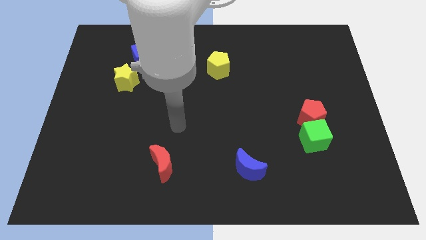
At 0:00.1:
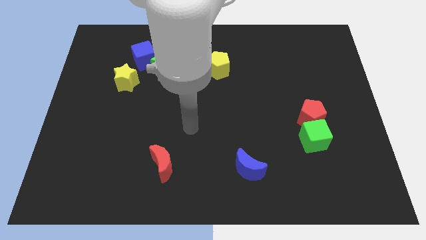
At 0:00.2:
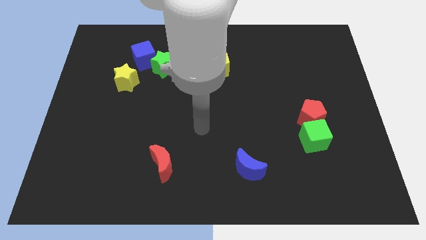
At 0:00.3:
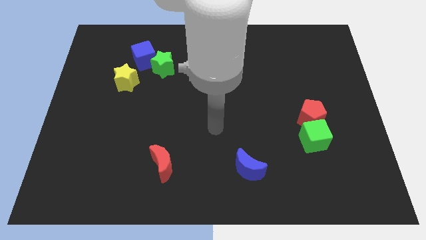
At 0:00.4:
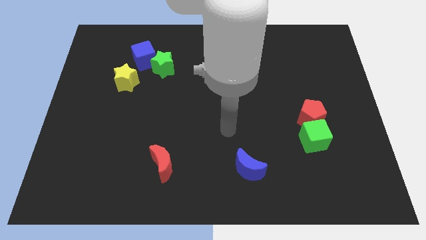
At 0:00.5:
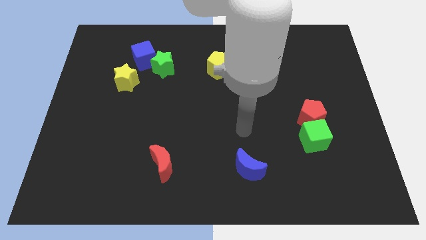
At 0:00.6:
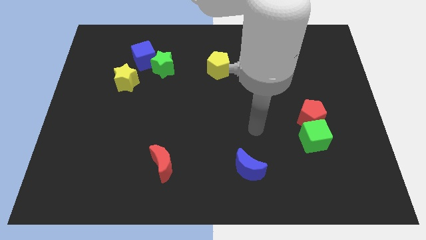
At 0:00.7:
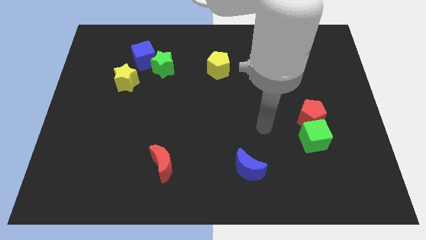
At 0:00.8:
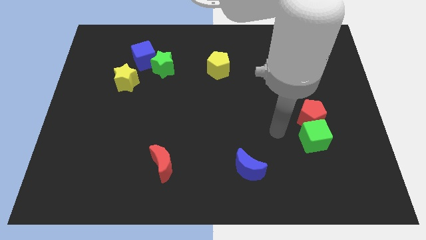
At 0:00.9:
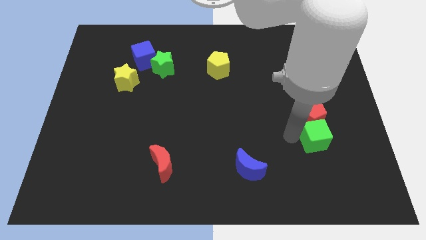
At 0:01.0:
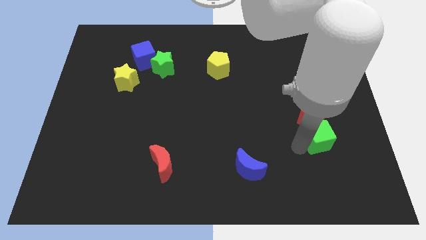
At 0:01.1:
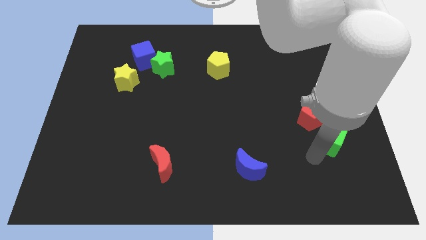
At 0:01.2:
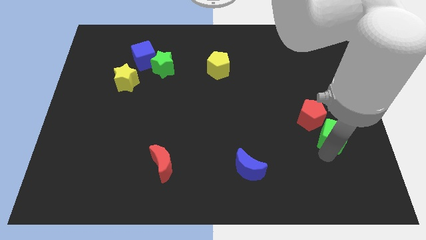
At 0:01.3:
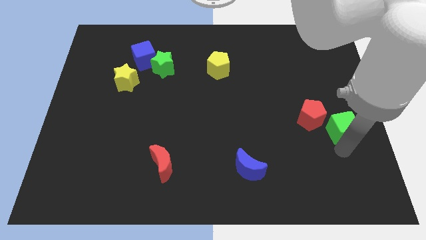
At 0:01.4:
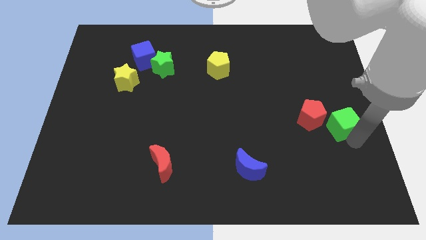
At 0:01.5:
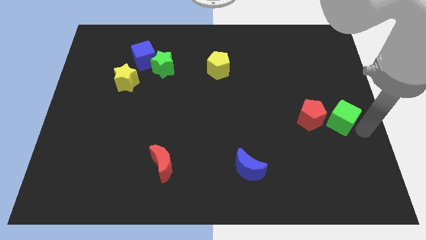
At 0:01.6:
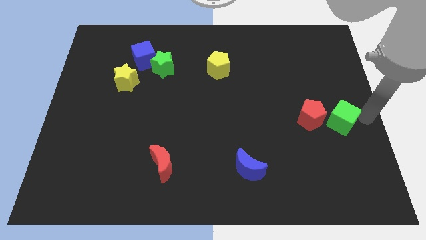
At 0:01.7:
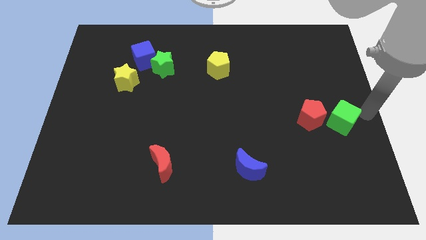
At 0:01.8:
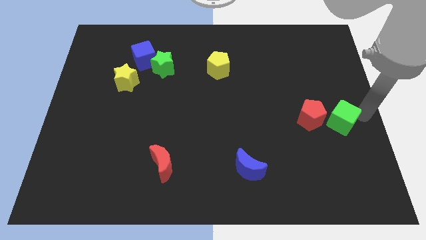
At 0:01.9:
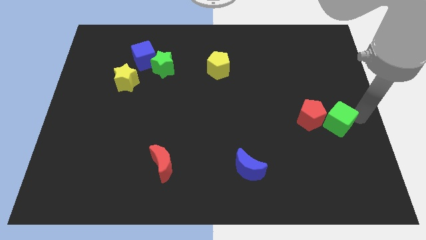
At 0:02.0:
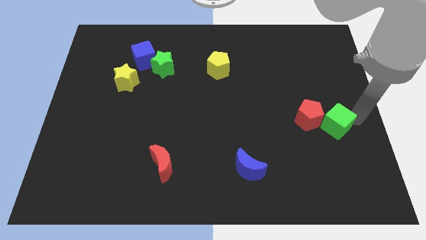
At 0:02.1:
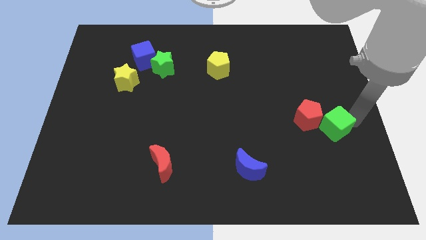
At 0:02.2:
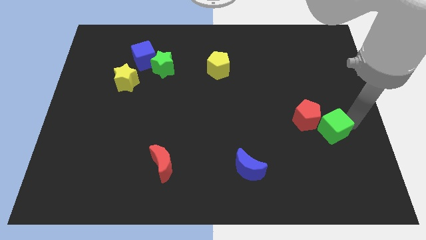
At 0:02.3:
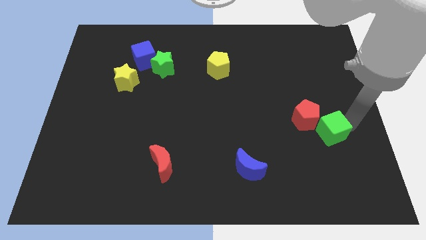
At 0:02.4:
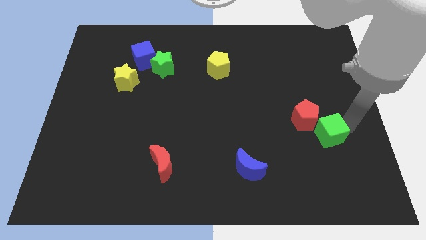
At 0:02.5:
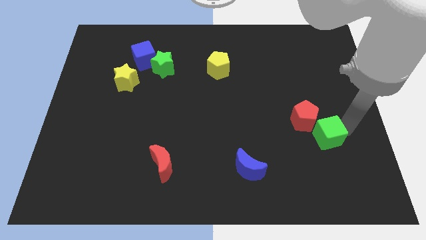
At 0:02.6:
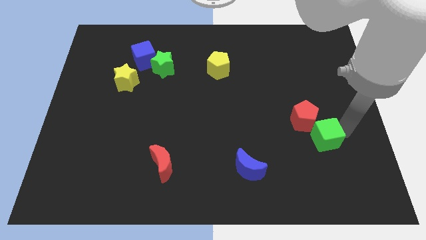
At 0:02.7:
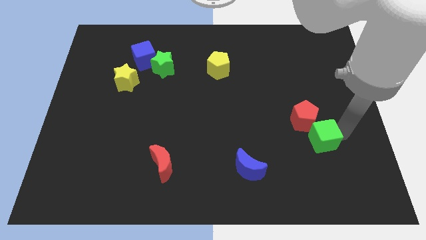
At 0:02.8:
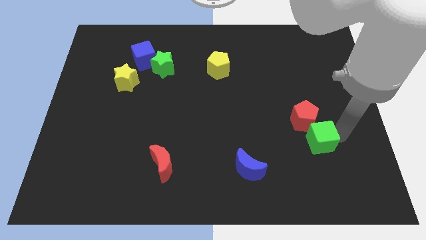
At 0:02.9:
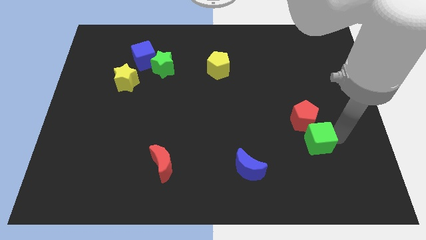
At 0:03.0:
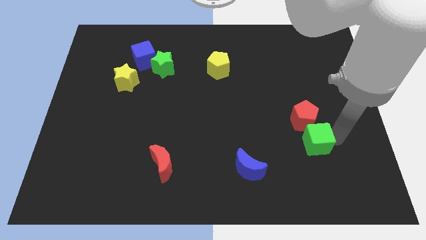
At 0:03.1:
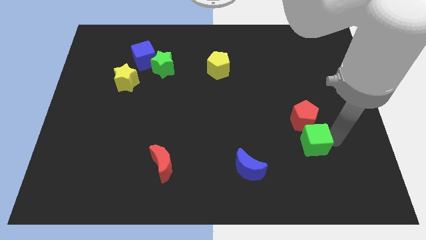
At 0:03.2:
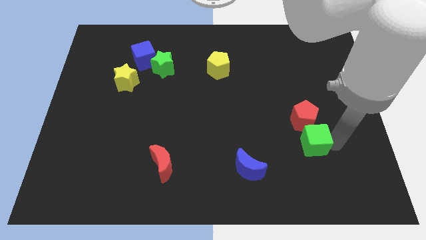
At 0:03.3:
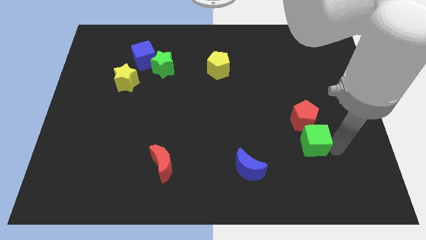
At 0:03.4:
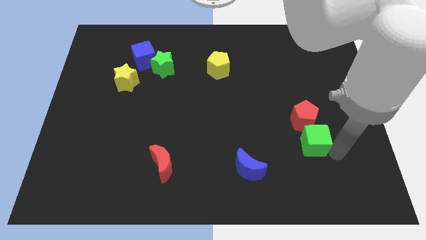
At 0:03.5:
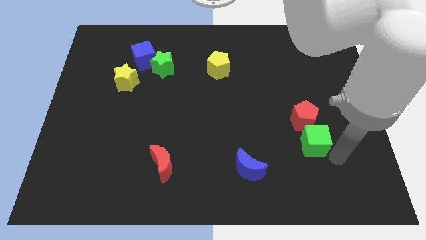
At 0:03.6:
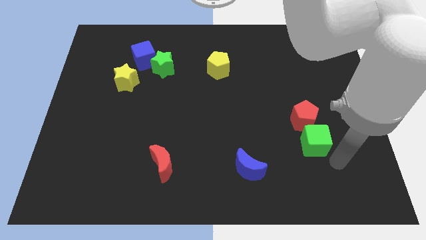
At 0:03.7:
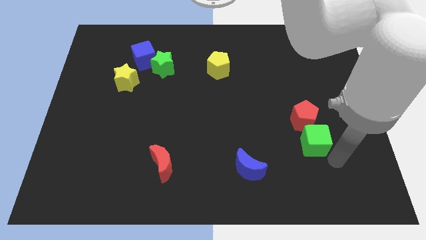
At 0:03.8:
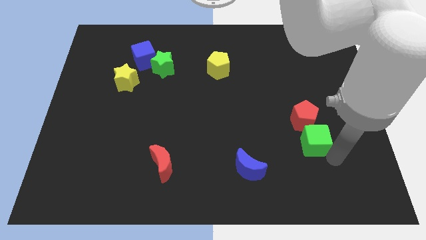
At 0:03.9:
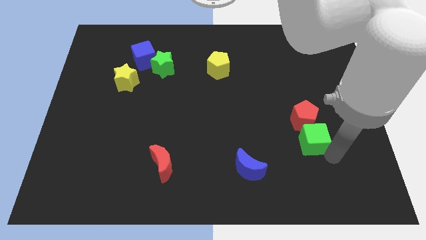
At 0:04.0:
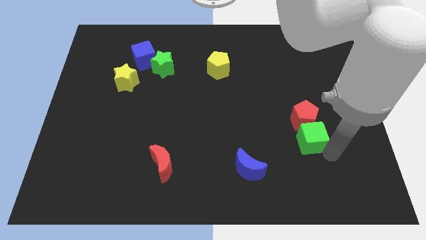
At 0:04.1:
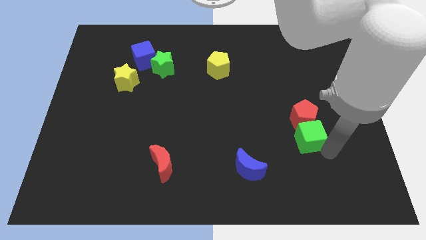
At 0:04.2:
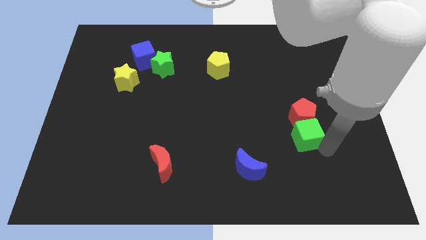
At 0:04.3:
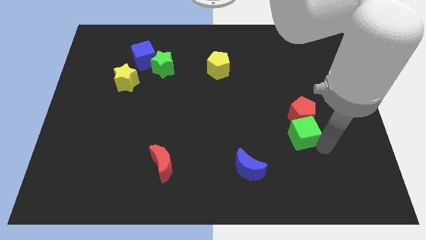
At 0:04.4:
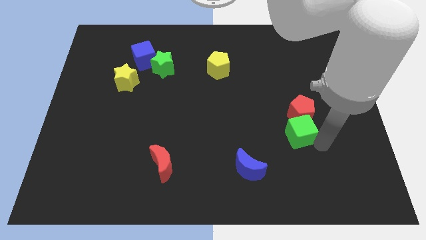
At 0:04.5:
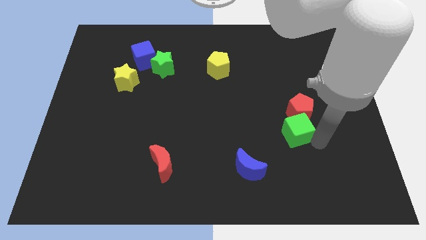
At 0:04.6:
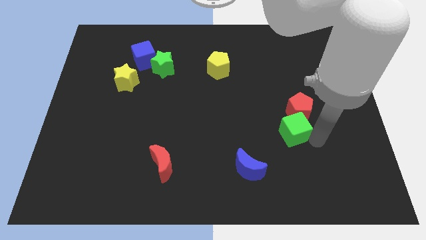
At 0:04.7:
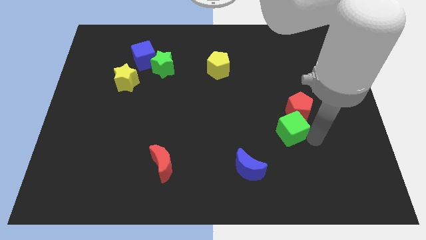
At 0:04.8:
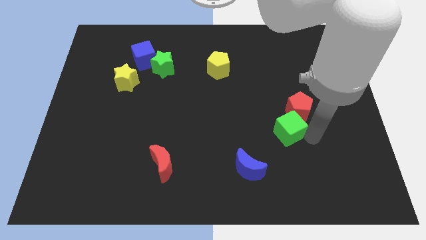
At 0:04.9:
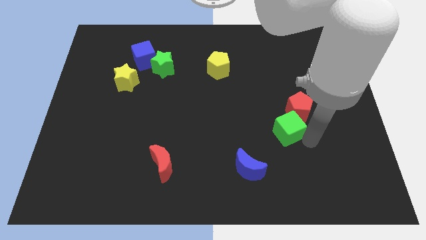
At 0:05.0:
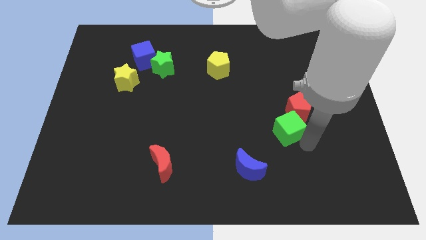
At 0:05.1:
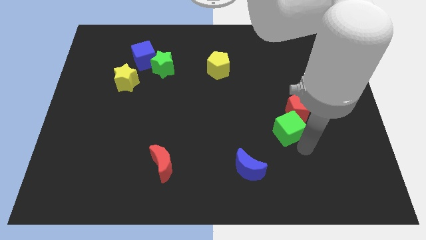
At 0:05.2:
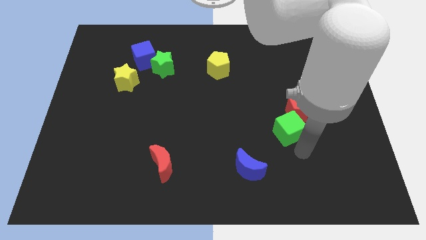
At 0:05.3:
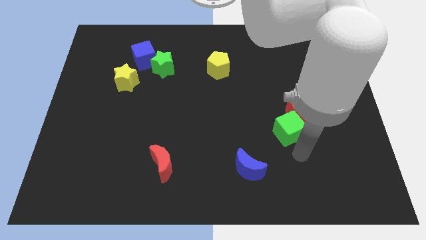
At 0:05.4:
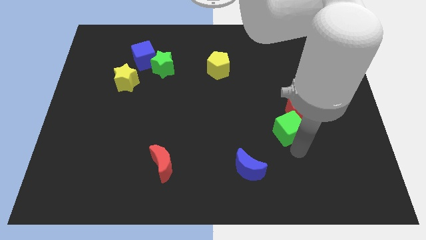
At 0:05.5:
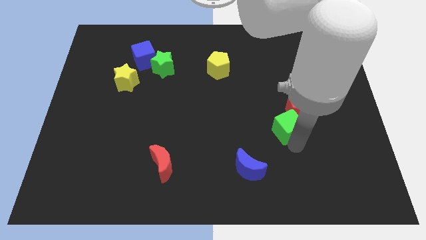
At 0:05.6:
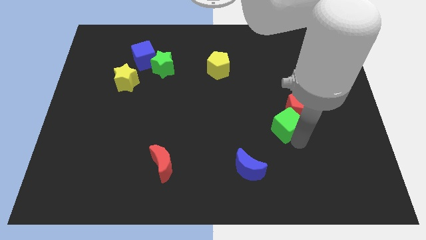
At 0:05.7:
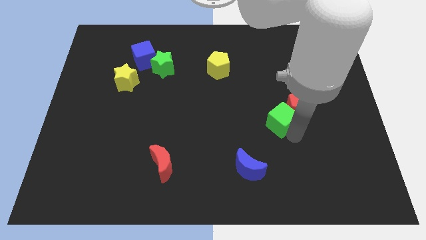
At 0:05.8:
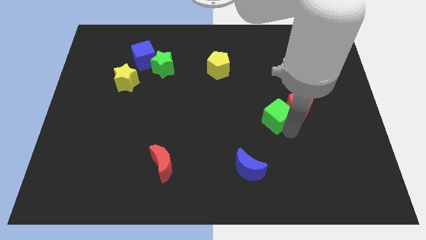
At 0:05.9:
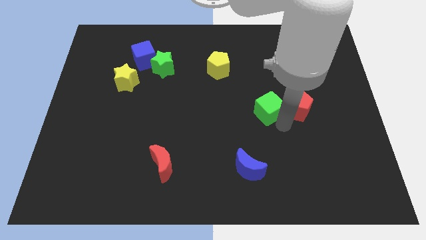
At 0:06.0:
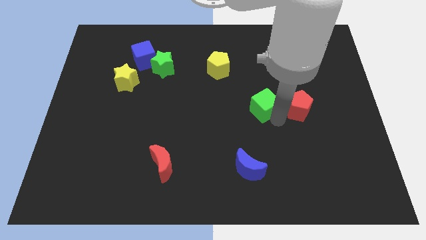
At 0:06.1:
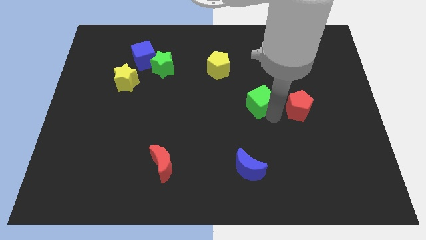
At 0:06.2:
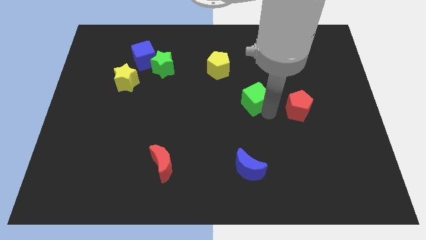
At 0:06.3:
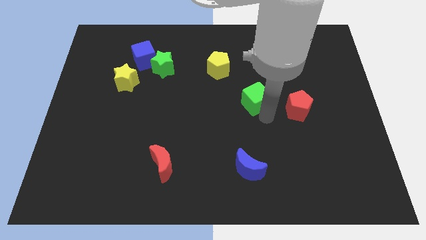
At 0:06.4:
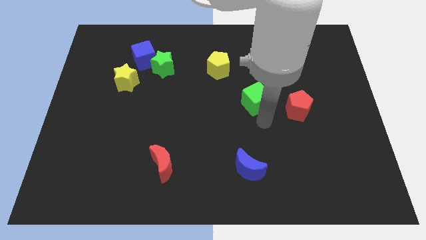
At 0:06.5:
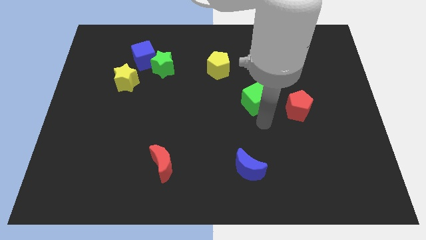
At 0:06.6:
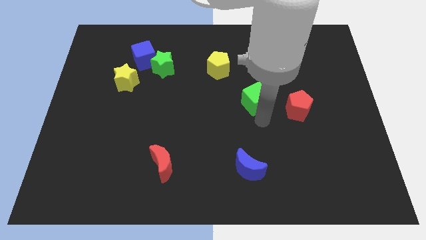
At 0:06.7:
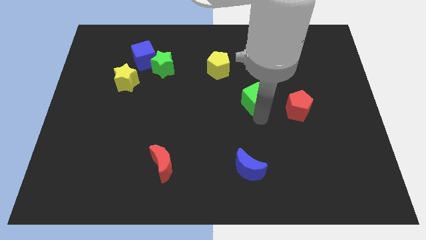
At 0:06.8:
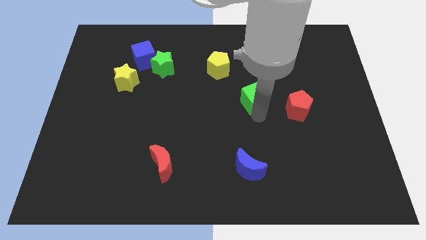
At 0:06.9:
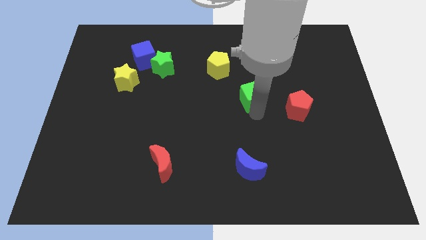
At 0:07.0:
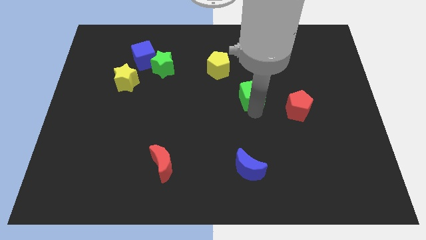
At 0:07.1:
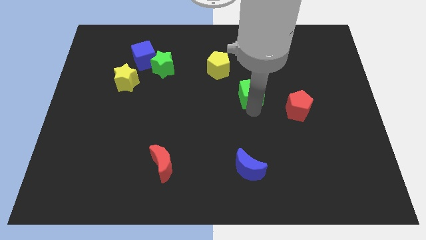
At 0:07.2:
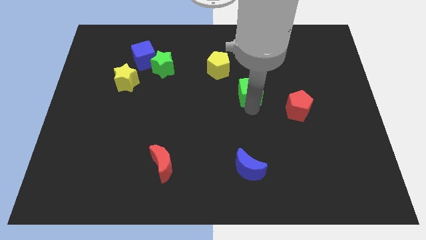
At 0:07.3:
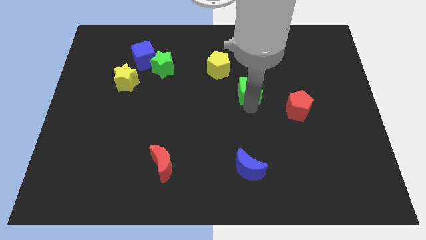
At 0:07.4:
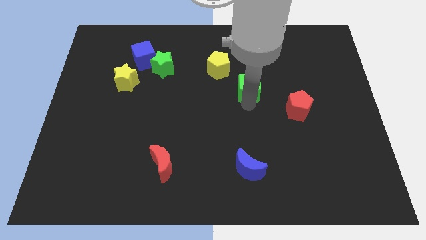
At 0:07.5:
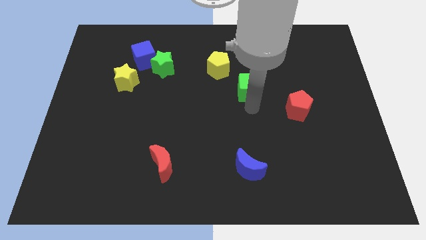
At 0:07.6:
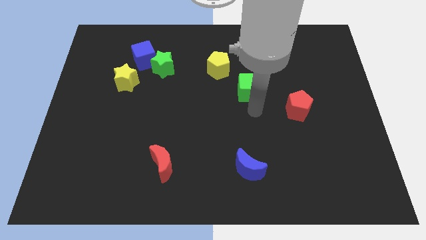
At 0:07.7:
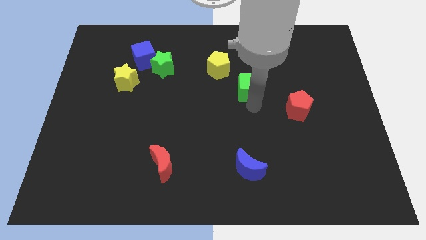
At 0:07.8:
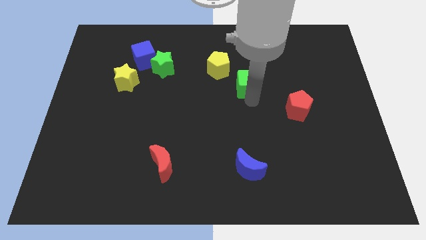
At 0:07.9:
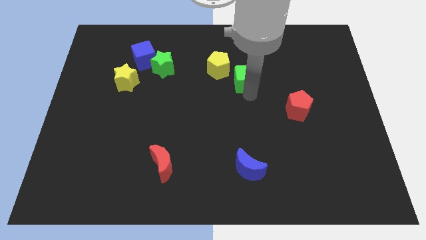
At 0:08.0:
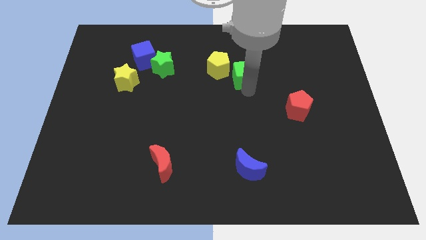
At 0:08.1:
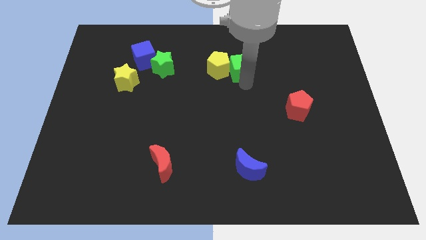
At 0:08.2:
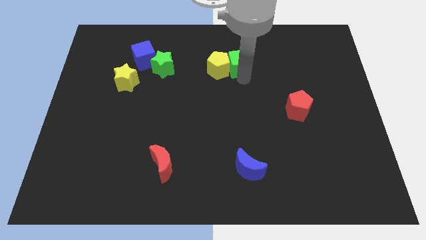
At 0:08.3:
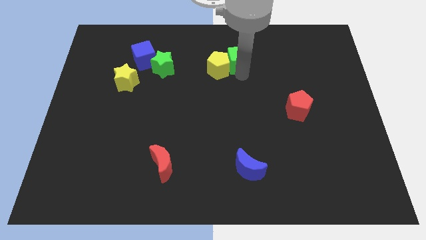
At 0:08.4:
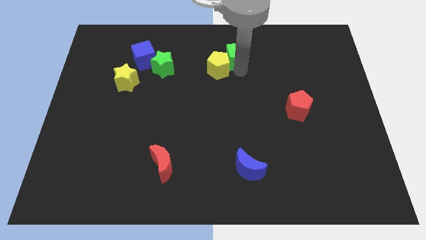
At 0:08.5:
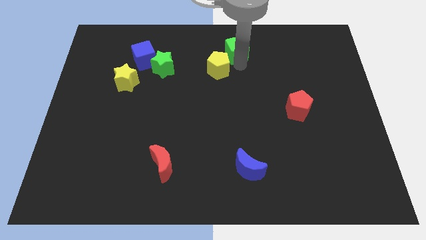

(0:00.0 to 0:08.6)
slide the green cube to the top side
